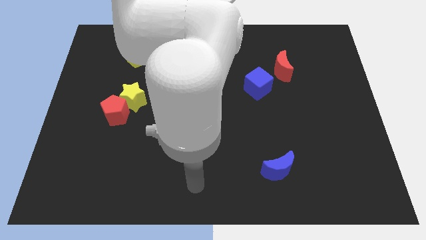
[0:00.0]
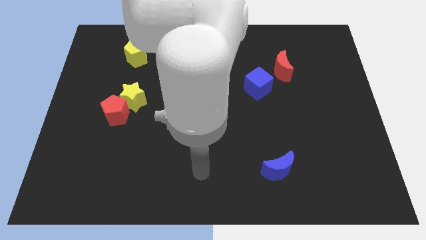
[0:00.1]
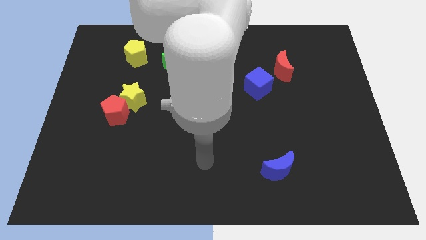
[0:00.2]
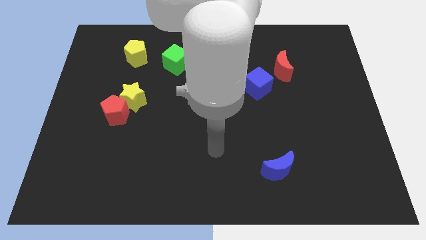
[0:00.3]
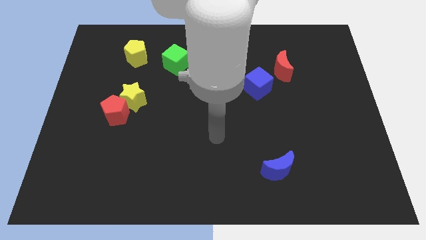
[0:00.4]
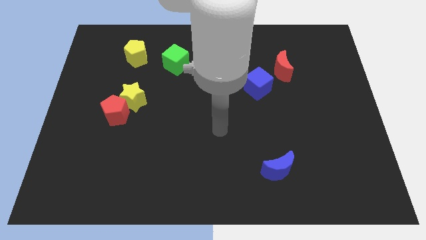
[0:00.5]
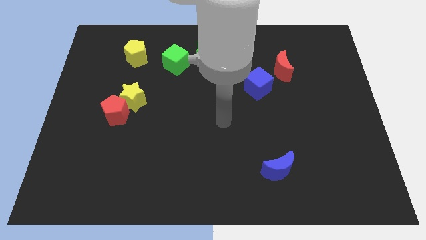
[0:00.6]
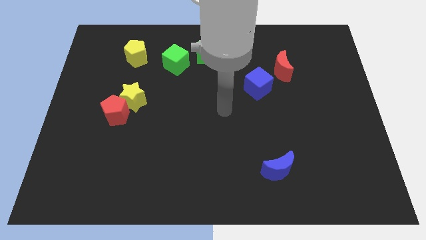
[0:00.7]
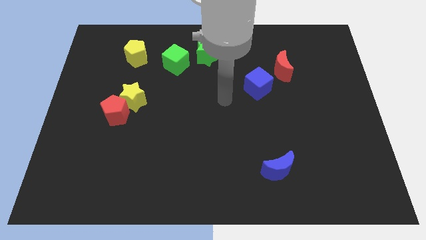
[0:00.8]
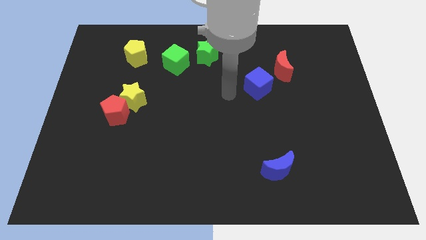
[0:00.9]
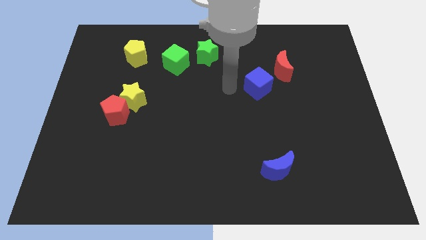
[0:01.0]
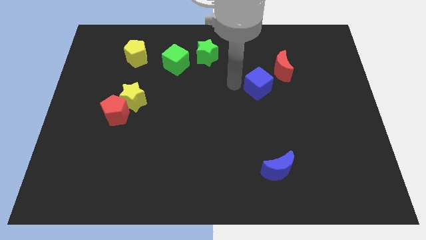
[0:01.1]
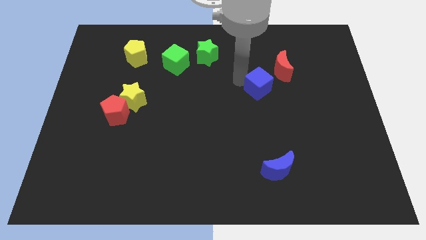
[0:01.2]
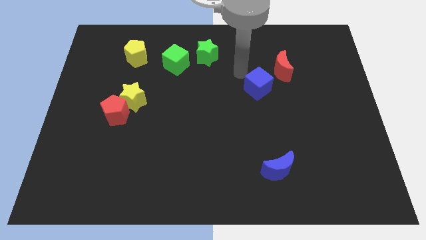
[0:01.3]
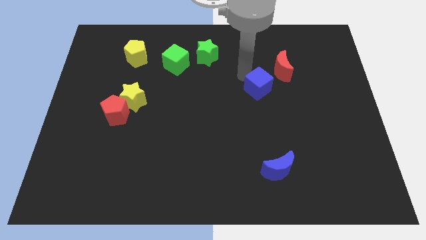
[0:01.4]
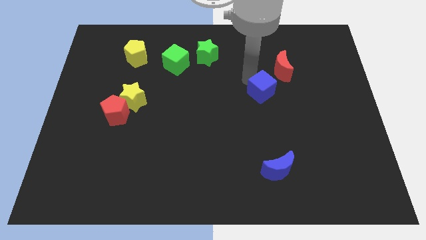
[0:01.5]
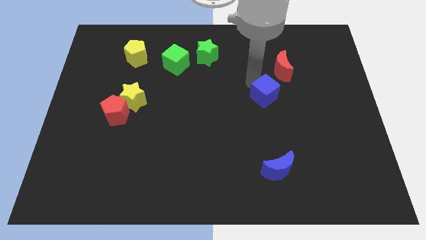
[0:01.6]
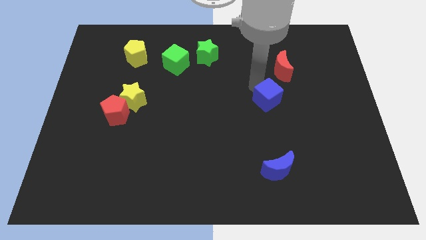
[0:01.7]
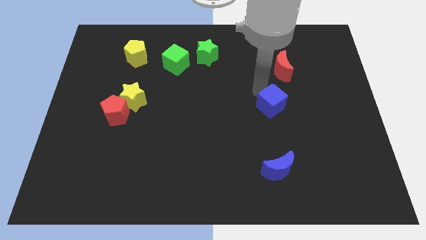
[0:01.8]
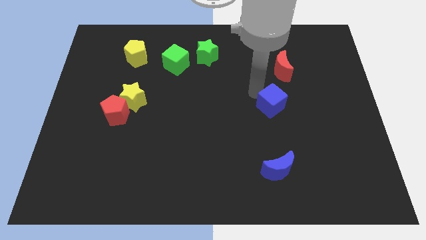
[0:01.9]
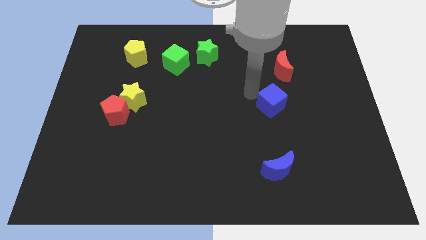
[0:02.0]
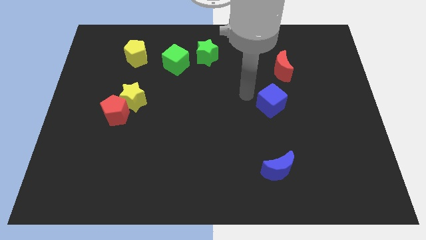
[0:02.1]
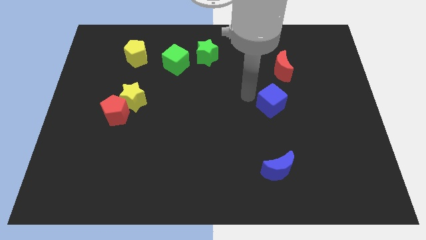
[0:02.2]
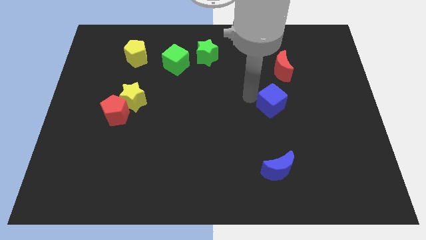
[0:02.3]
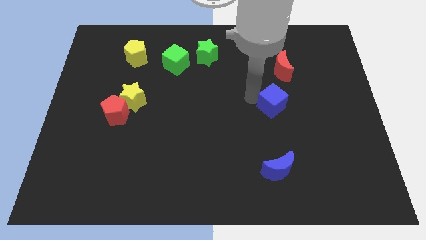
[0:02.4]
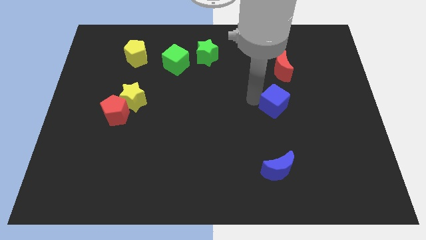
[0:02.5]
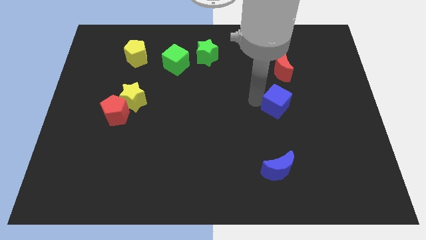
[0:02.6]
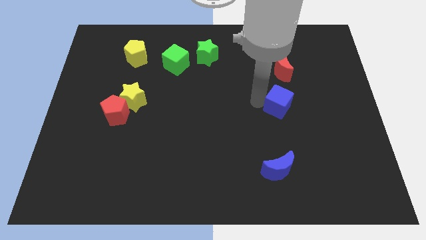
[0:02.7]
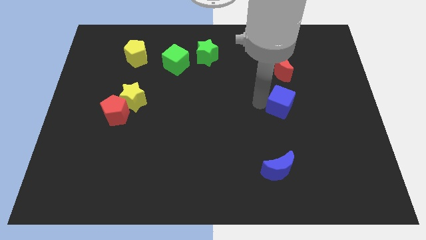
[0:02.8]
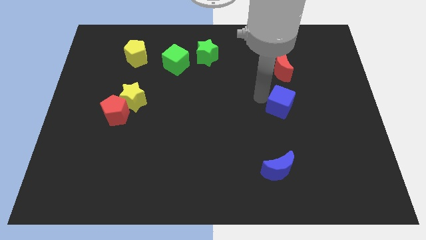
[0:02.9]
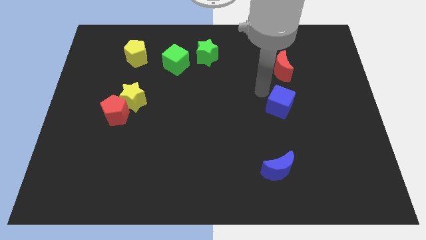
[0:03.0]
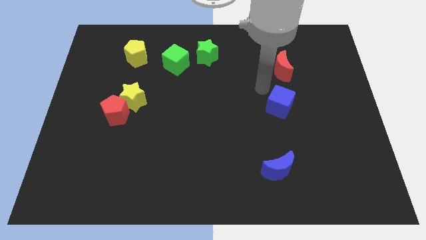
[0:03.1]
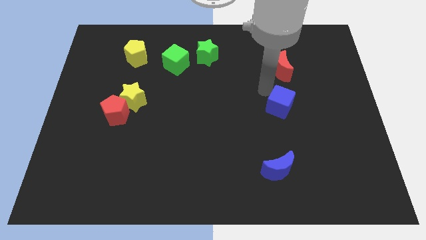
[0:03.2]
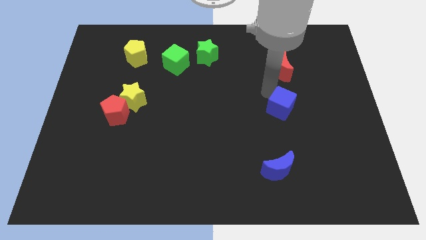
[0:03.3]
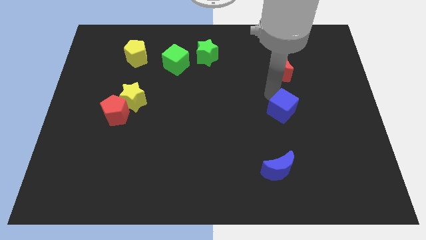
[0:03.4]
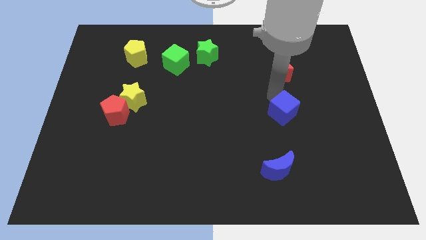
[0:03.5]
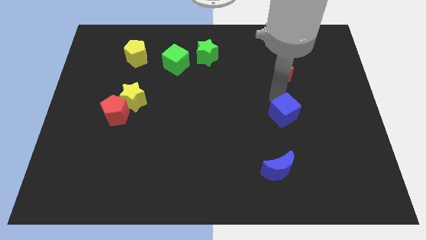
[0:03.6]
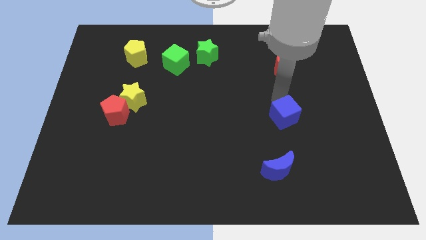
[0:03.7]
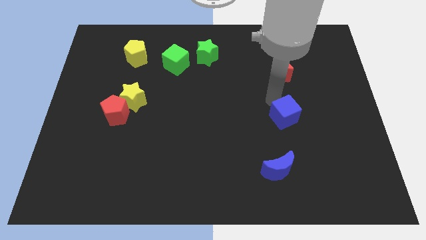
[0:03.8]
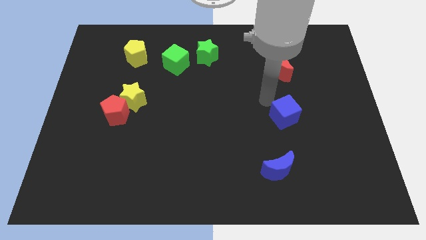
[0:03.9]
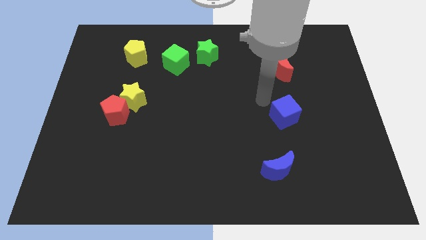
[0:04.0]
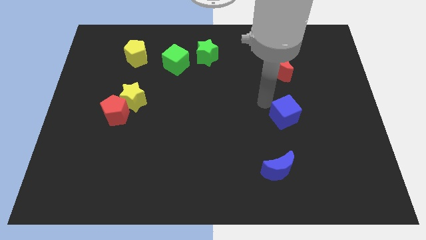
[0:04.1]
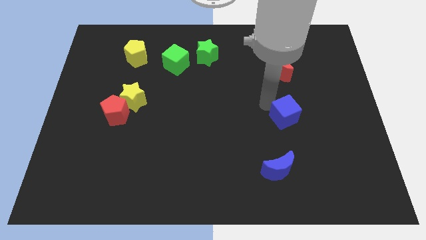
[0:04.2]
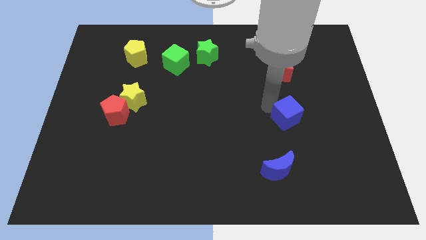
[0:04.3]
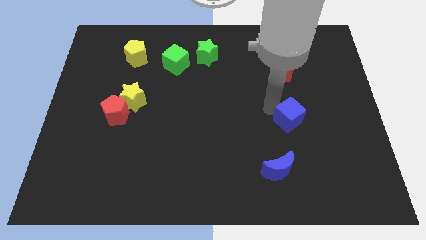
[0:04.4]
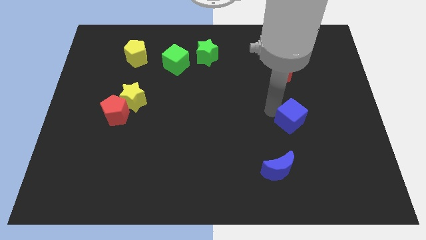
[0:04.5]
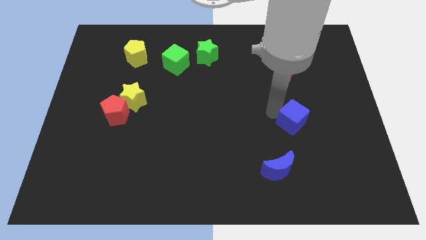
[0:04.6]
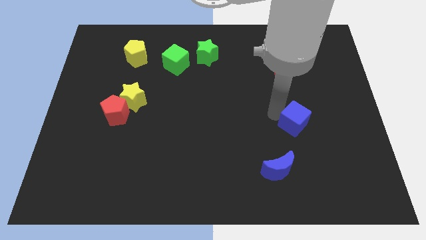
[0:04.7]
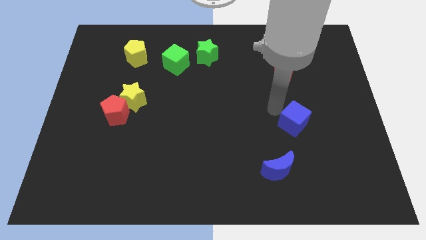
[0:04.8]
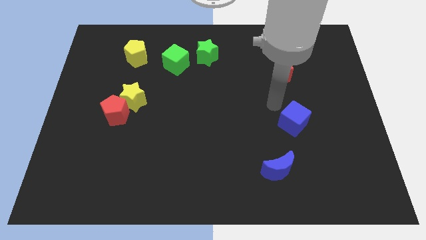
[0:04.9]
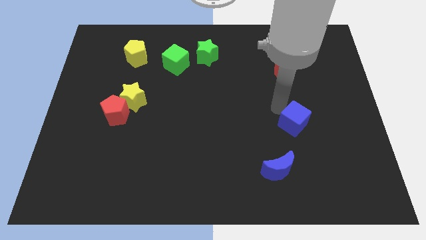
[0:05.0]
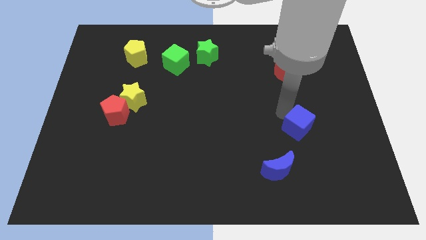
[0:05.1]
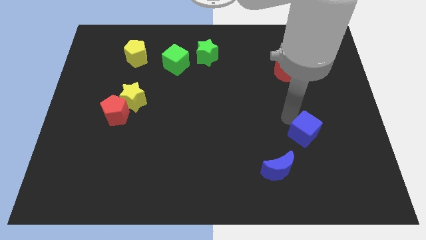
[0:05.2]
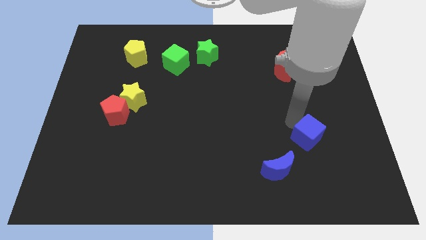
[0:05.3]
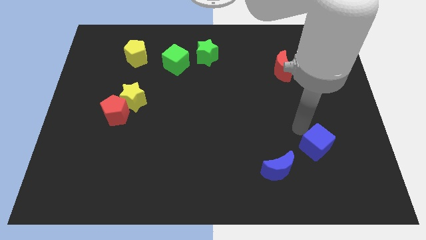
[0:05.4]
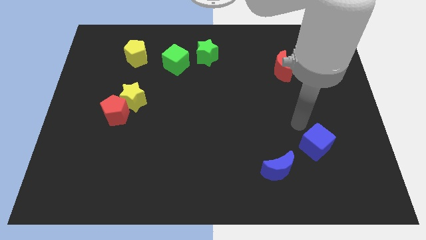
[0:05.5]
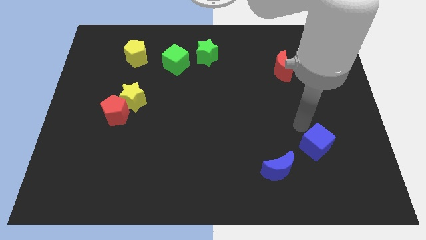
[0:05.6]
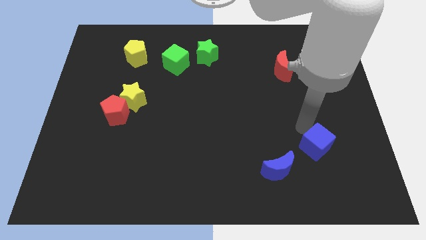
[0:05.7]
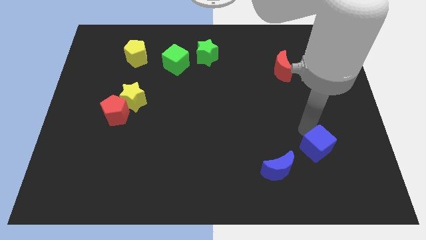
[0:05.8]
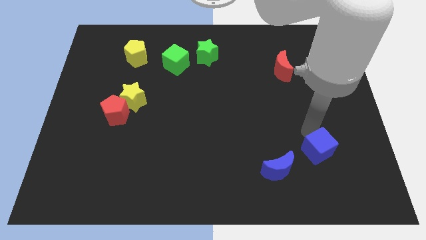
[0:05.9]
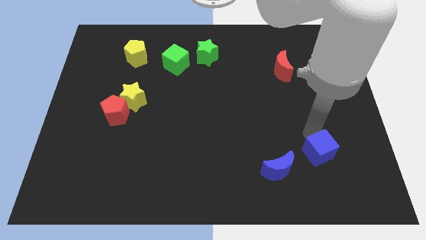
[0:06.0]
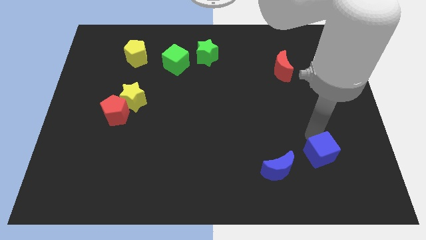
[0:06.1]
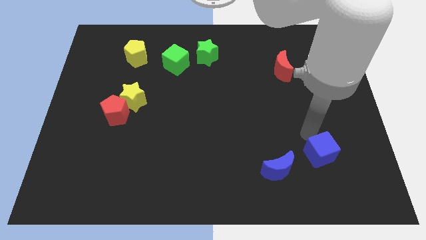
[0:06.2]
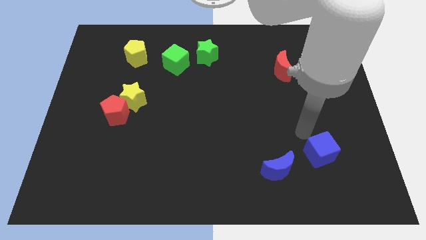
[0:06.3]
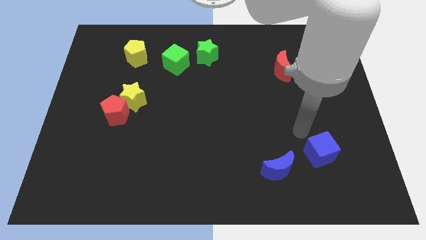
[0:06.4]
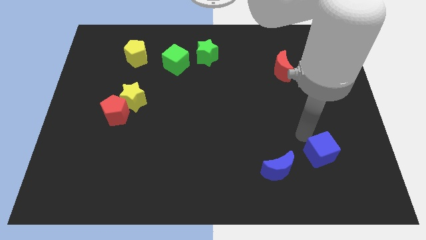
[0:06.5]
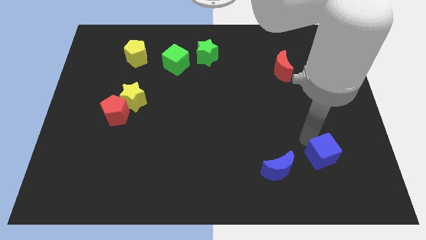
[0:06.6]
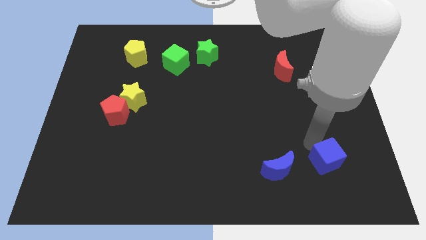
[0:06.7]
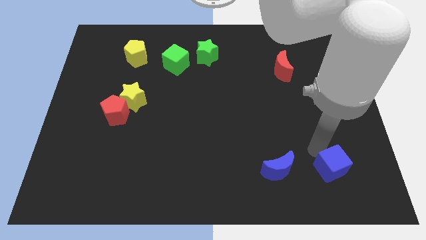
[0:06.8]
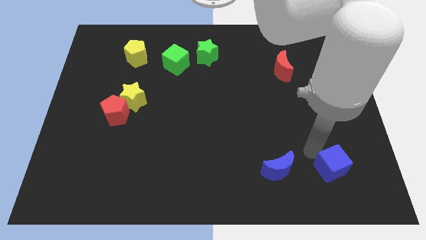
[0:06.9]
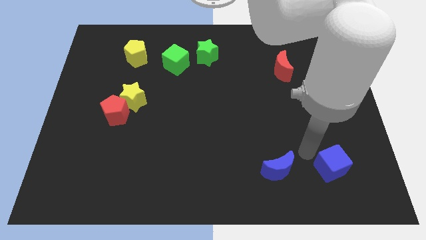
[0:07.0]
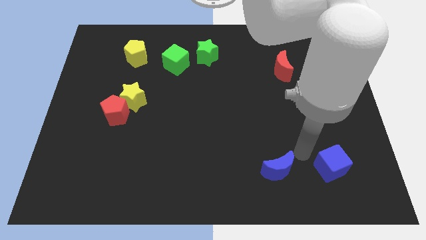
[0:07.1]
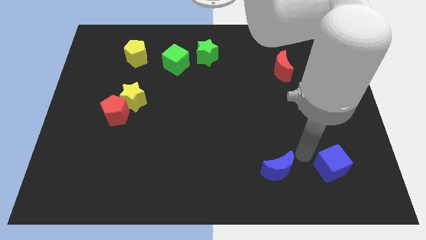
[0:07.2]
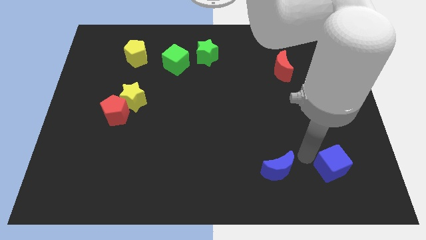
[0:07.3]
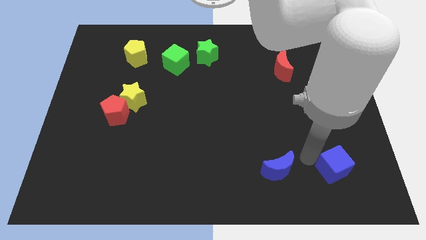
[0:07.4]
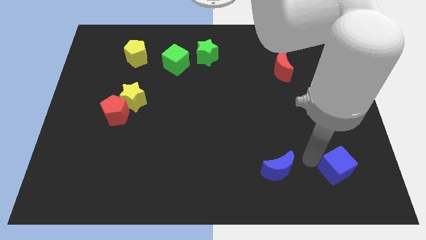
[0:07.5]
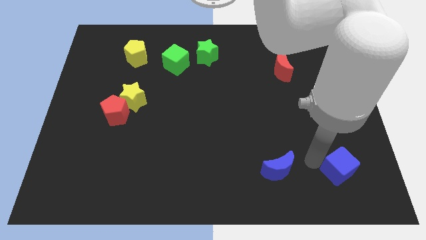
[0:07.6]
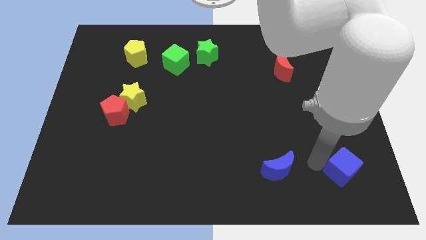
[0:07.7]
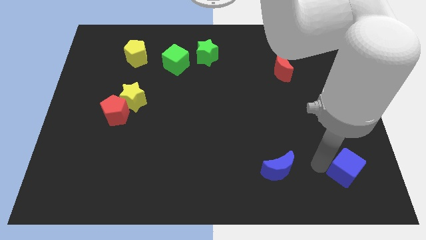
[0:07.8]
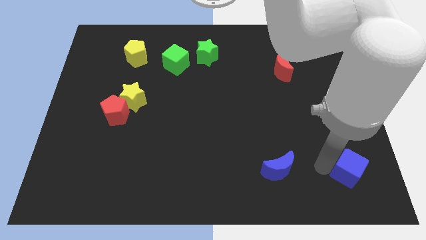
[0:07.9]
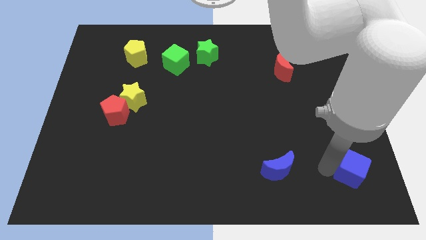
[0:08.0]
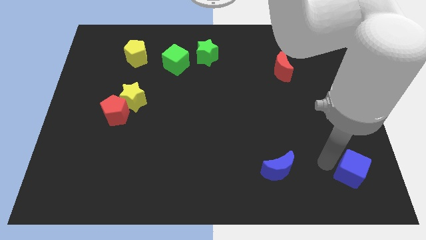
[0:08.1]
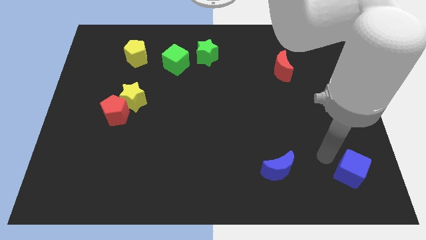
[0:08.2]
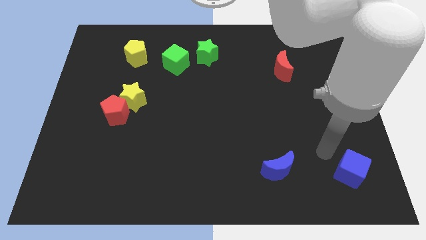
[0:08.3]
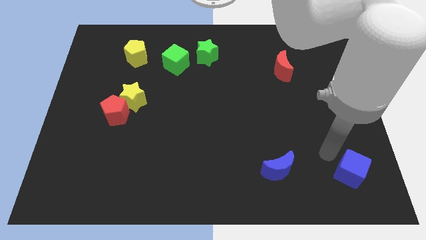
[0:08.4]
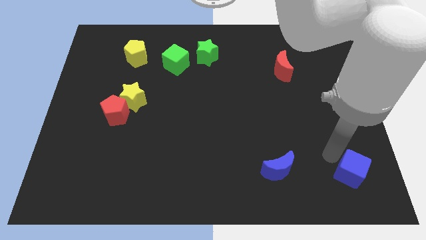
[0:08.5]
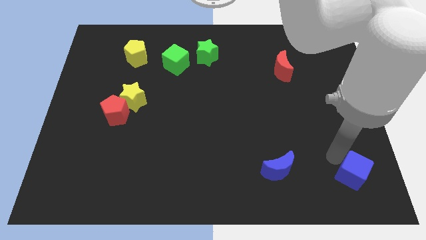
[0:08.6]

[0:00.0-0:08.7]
move the blue cube to the lower right corner
